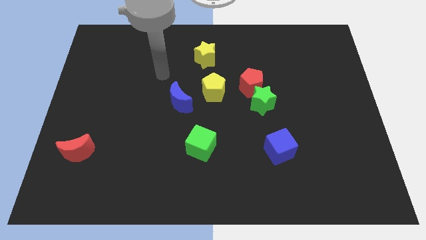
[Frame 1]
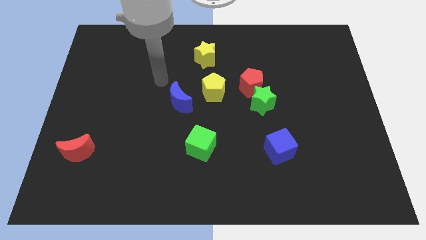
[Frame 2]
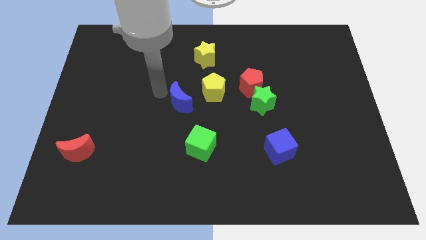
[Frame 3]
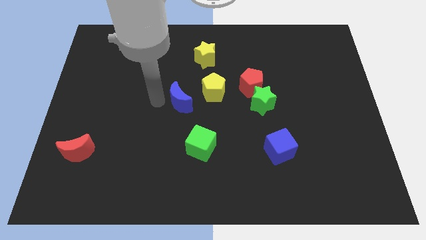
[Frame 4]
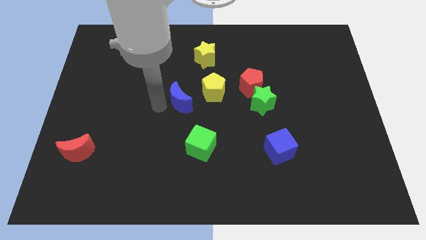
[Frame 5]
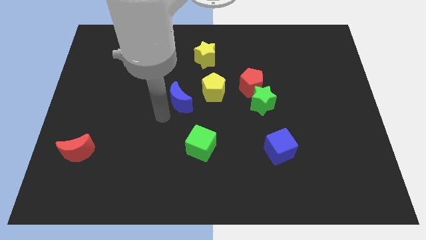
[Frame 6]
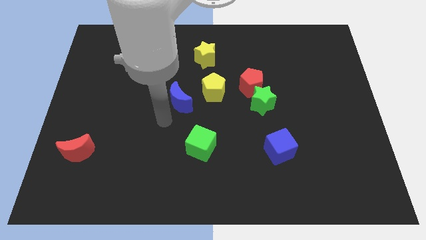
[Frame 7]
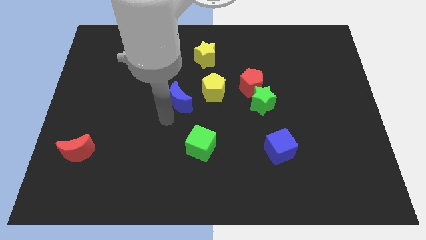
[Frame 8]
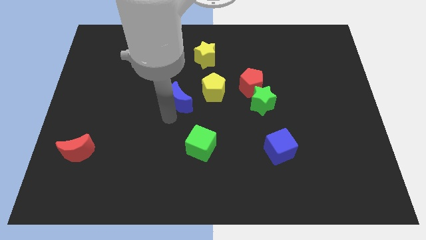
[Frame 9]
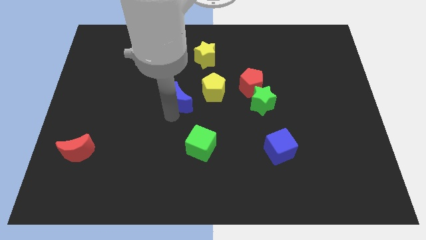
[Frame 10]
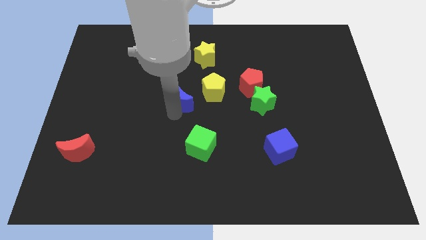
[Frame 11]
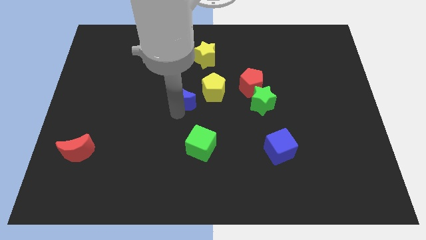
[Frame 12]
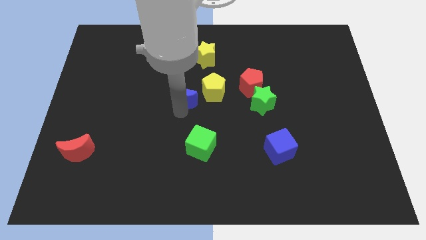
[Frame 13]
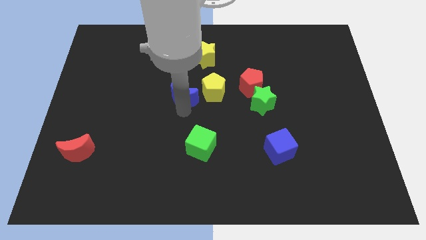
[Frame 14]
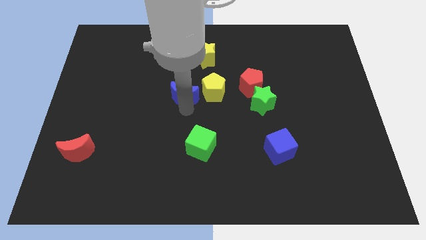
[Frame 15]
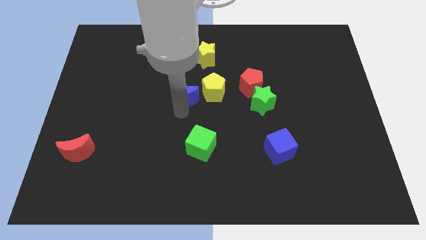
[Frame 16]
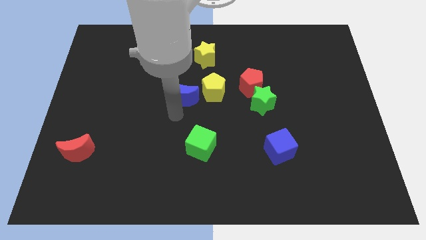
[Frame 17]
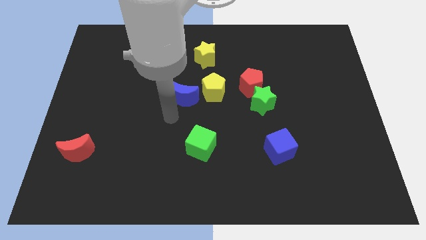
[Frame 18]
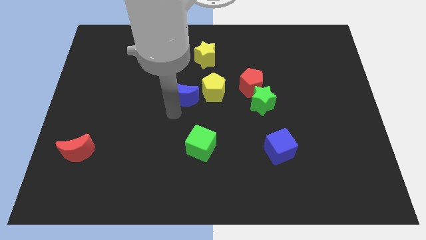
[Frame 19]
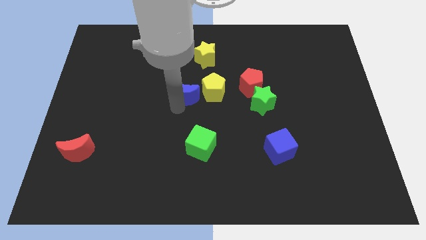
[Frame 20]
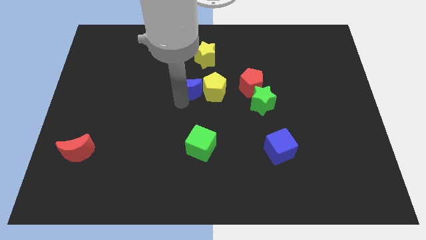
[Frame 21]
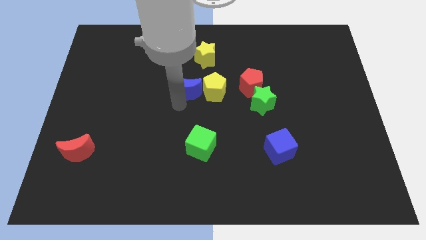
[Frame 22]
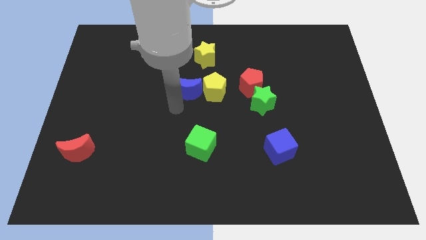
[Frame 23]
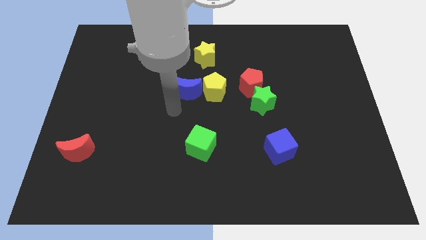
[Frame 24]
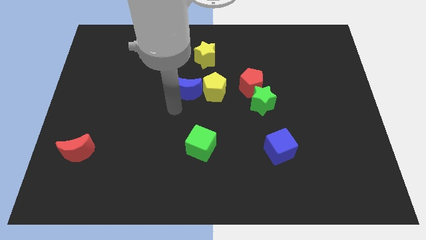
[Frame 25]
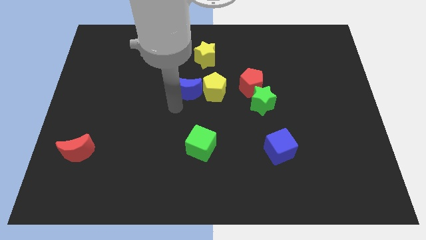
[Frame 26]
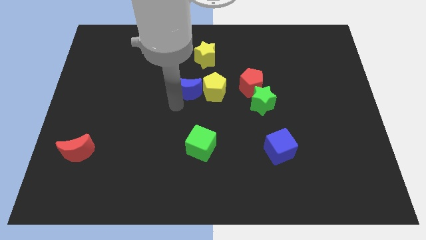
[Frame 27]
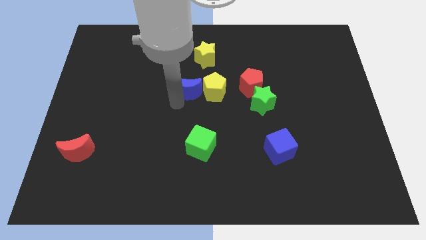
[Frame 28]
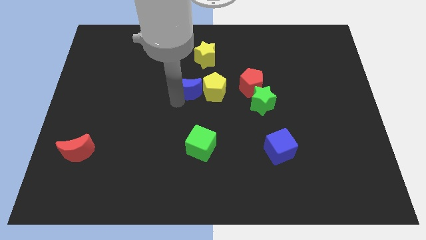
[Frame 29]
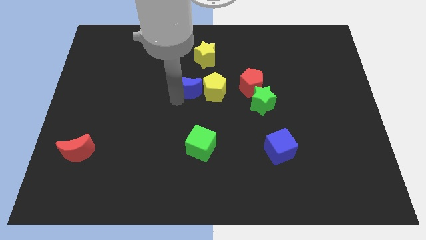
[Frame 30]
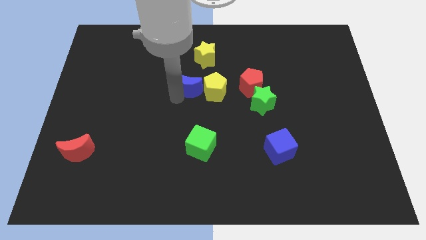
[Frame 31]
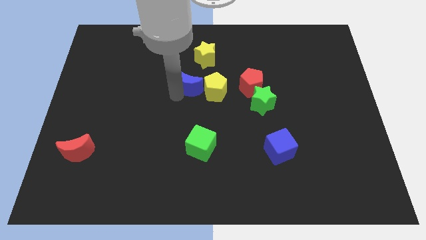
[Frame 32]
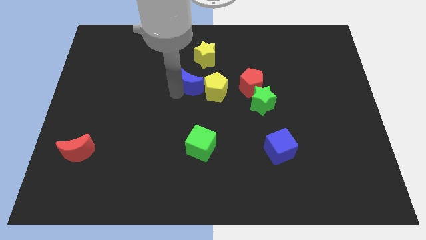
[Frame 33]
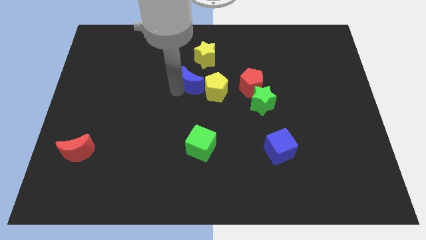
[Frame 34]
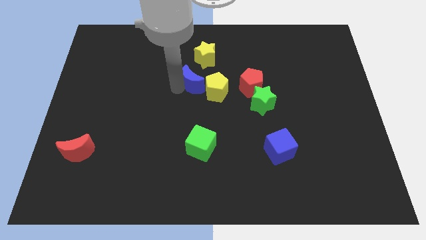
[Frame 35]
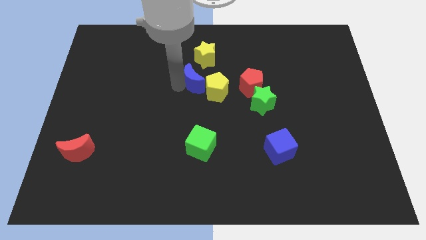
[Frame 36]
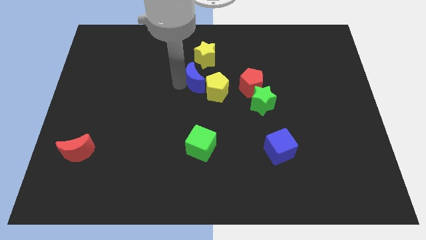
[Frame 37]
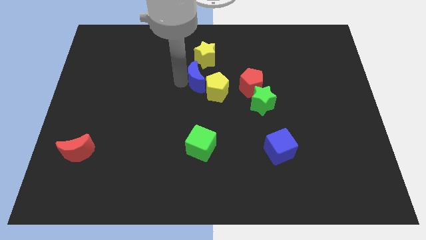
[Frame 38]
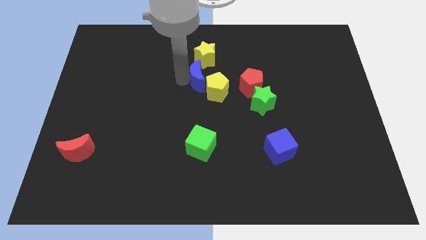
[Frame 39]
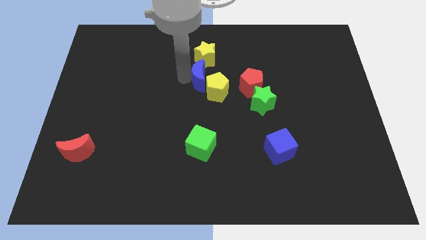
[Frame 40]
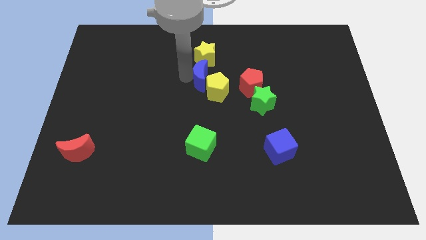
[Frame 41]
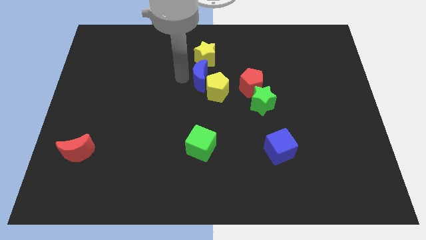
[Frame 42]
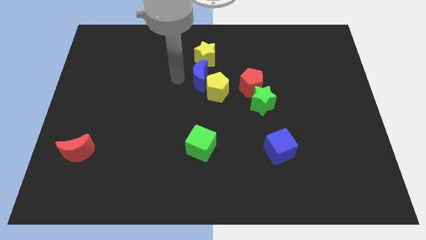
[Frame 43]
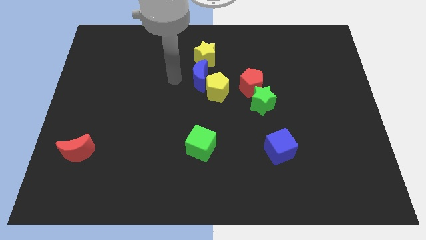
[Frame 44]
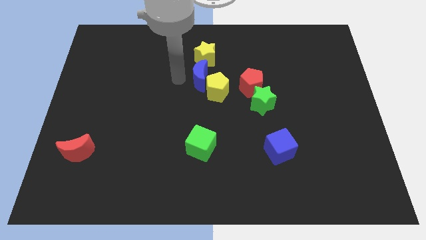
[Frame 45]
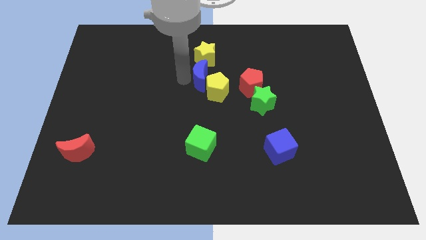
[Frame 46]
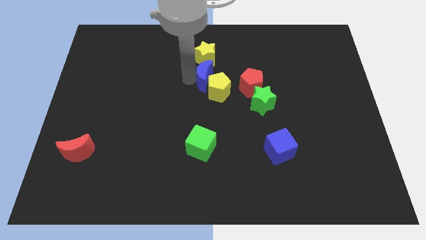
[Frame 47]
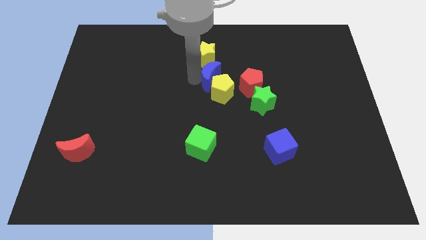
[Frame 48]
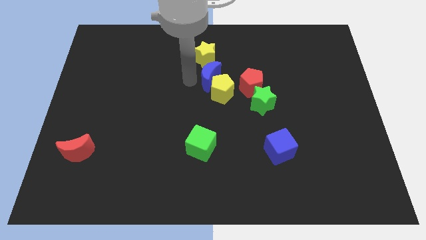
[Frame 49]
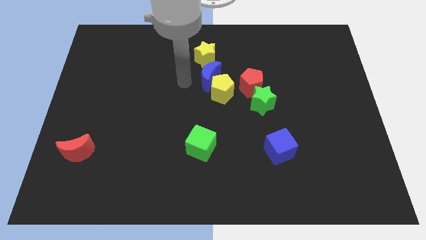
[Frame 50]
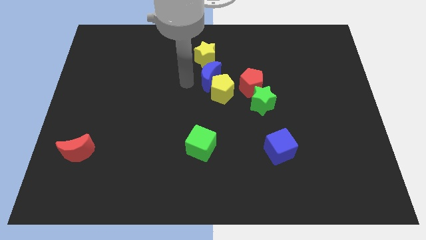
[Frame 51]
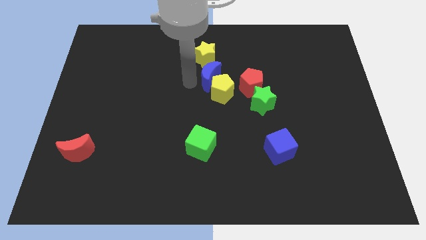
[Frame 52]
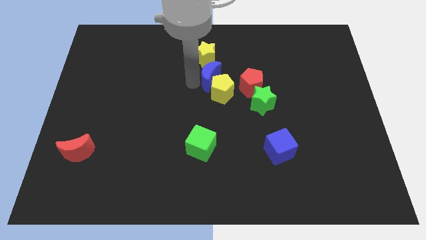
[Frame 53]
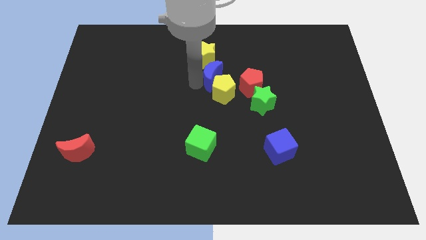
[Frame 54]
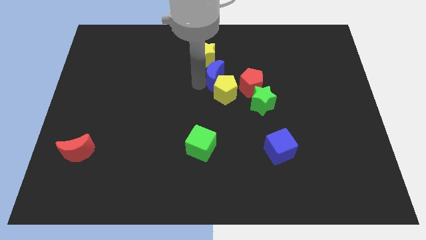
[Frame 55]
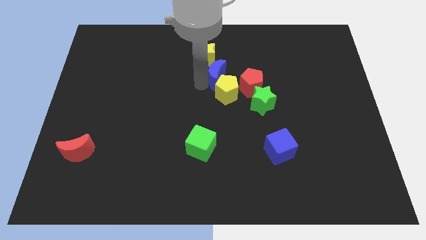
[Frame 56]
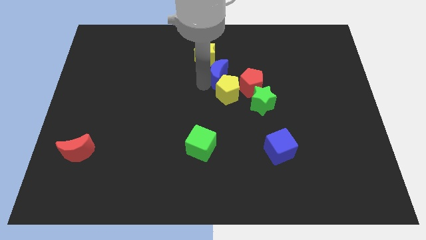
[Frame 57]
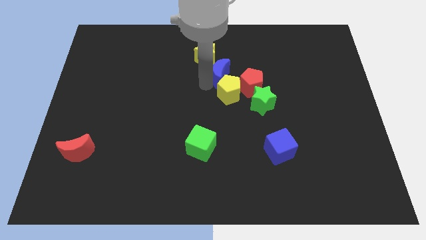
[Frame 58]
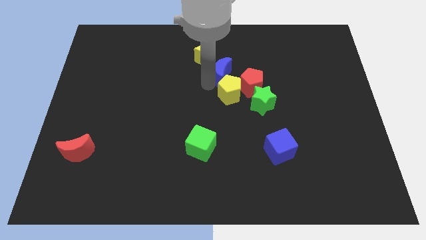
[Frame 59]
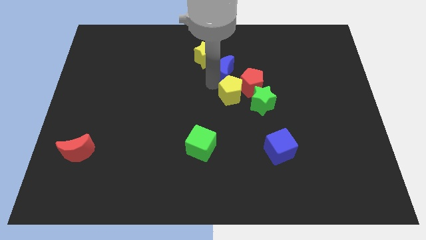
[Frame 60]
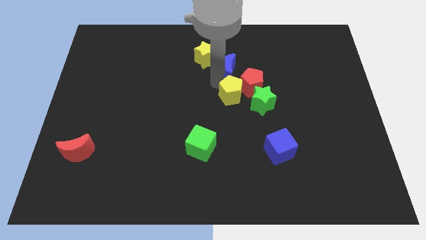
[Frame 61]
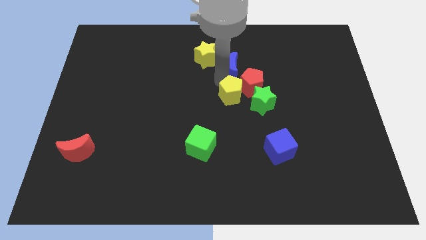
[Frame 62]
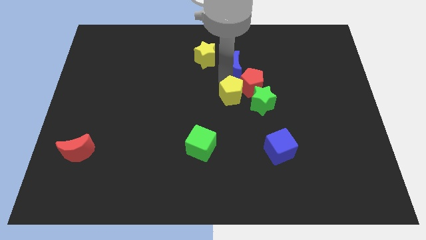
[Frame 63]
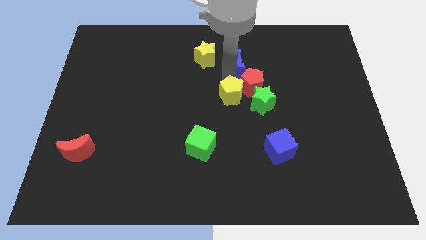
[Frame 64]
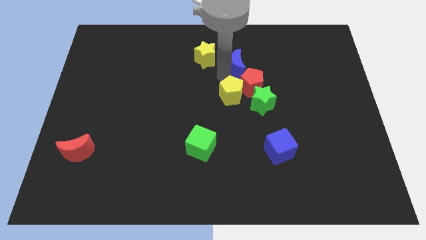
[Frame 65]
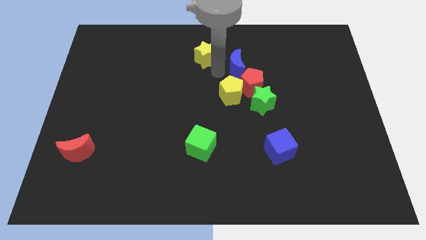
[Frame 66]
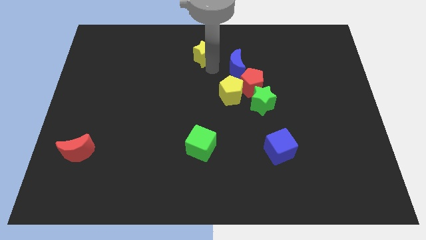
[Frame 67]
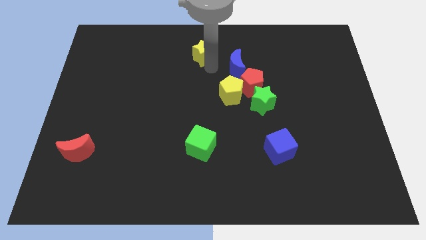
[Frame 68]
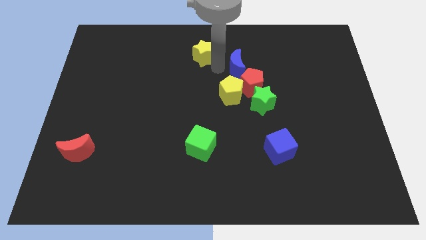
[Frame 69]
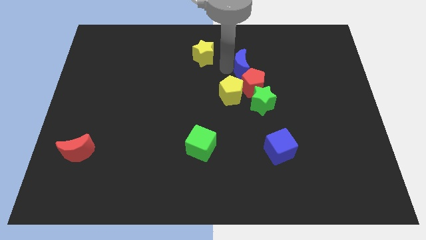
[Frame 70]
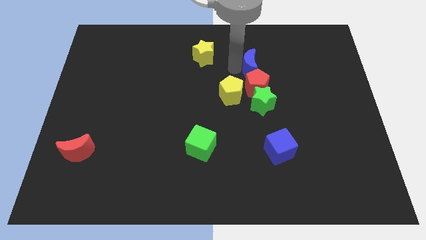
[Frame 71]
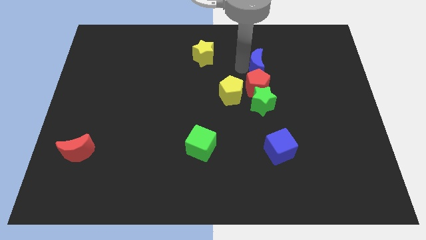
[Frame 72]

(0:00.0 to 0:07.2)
move the blue moon diagonally up and to the right of the red pentagon
